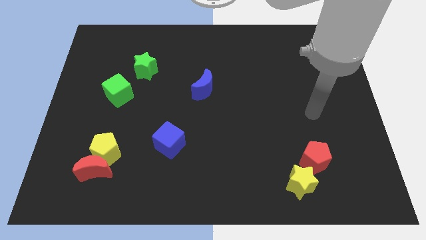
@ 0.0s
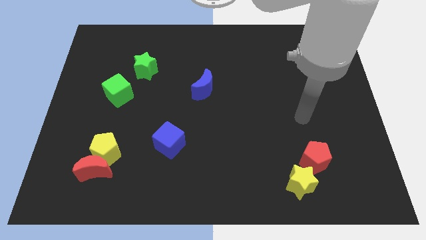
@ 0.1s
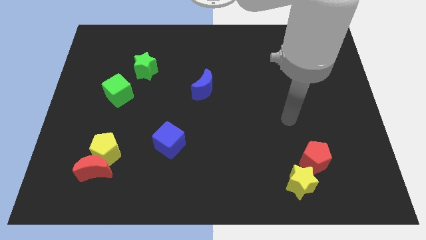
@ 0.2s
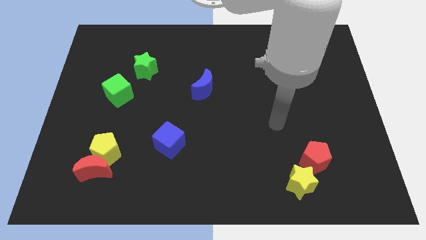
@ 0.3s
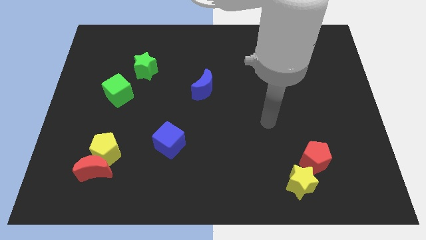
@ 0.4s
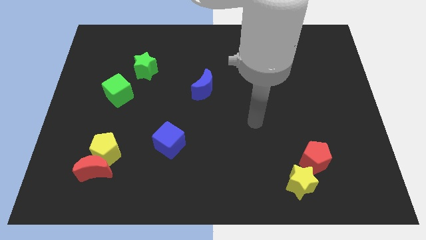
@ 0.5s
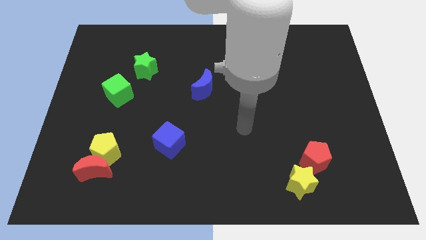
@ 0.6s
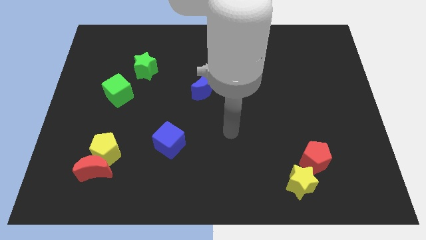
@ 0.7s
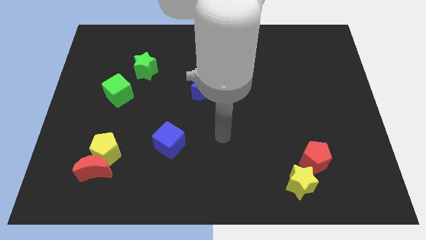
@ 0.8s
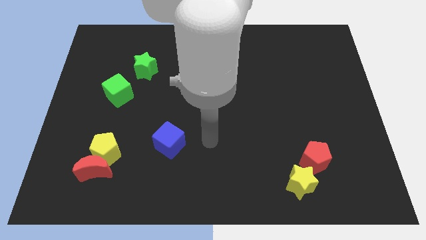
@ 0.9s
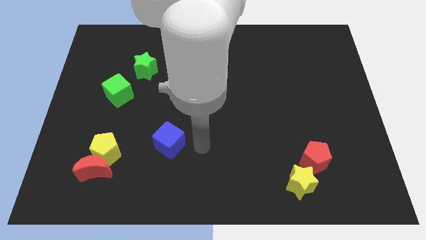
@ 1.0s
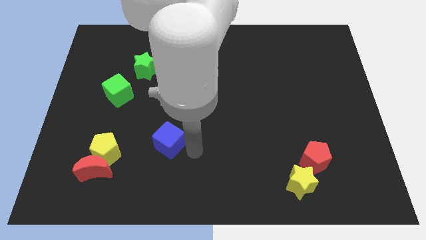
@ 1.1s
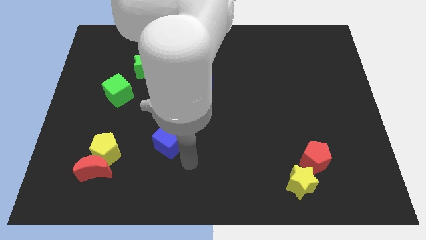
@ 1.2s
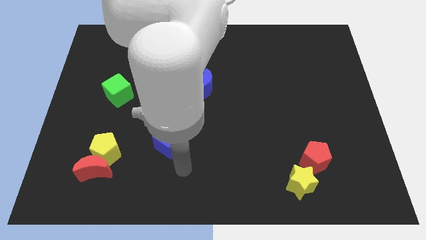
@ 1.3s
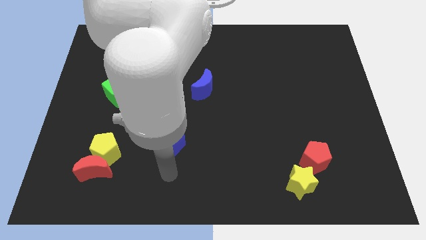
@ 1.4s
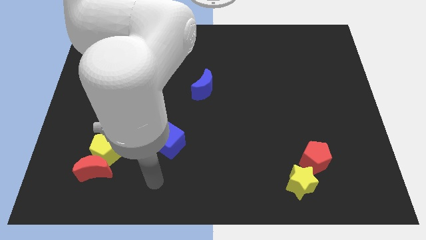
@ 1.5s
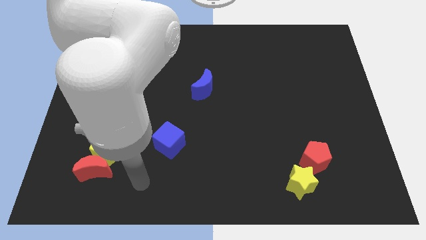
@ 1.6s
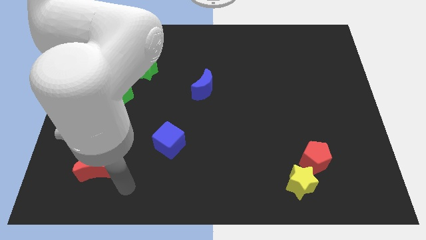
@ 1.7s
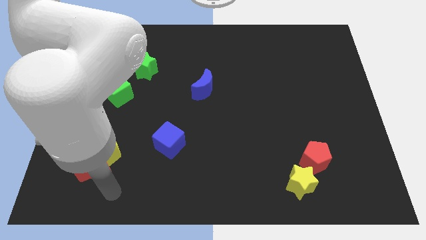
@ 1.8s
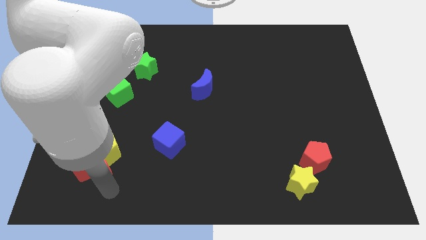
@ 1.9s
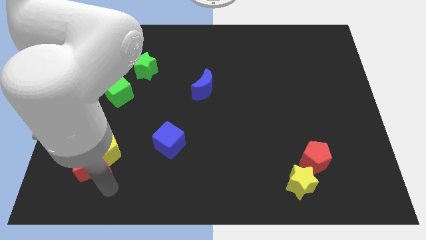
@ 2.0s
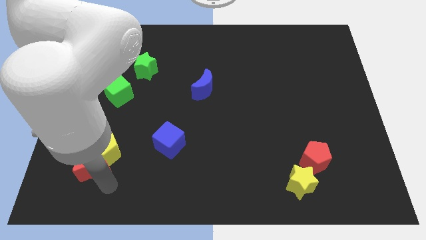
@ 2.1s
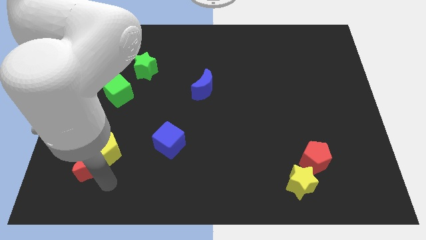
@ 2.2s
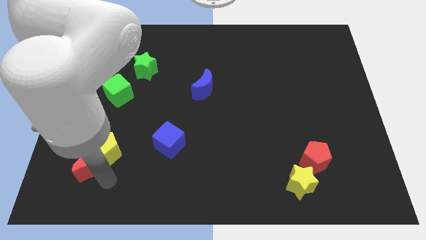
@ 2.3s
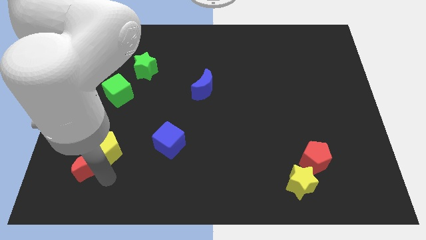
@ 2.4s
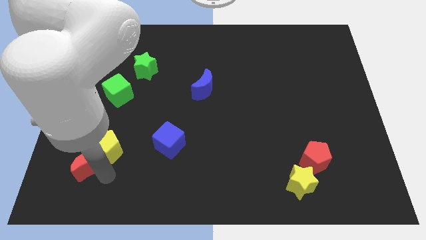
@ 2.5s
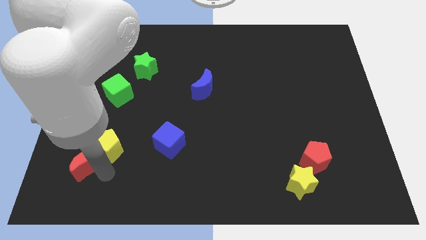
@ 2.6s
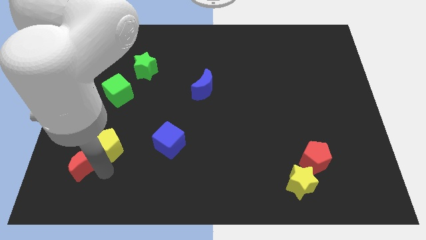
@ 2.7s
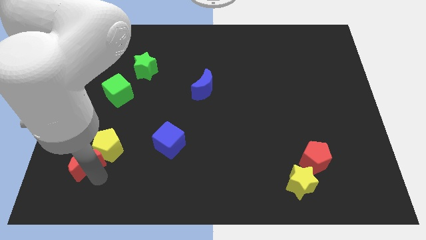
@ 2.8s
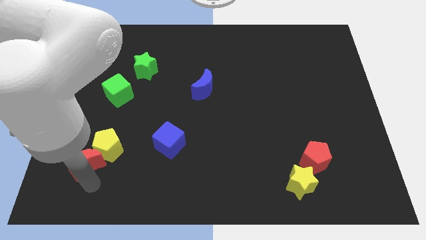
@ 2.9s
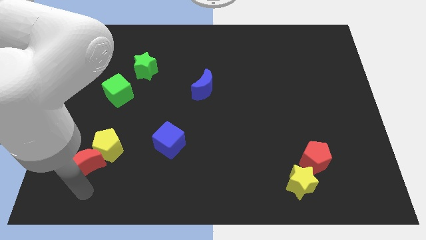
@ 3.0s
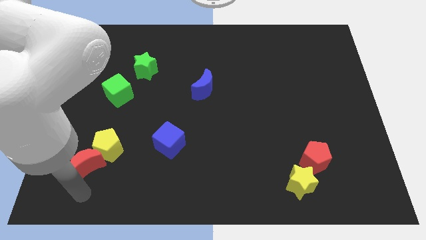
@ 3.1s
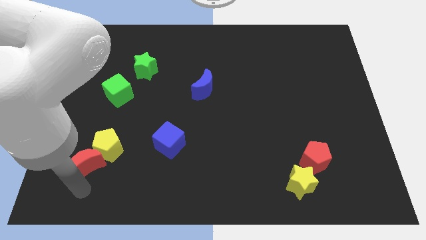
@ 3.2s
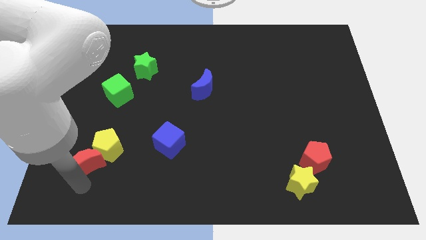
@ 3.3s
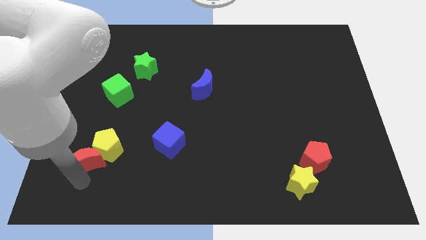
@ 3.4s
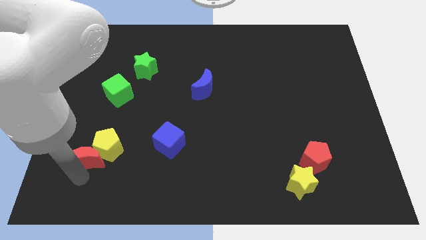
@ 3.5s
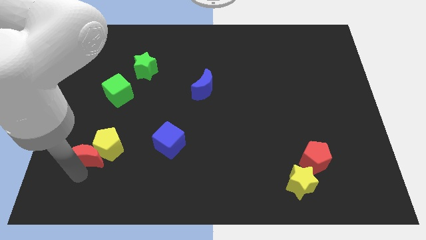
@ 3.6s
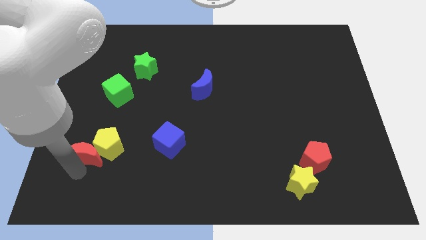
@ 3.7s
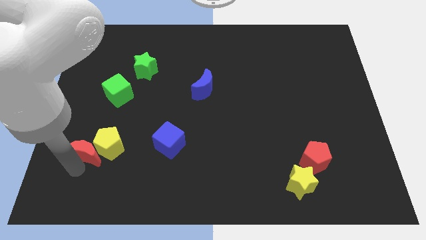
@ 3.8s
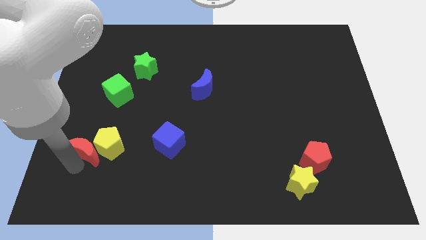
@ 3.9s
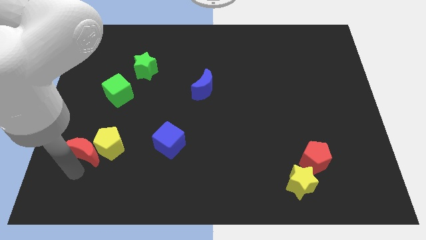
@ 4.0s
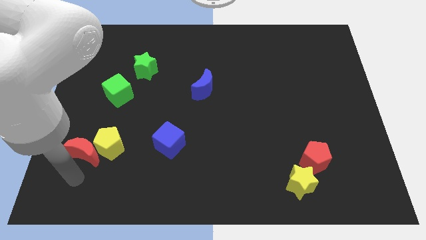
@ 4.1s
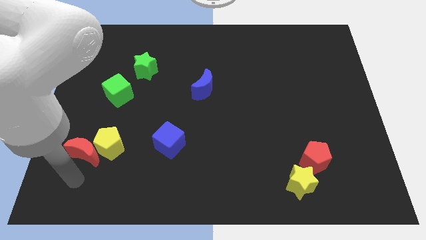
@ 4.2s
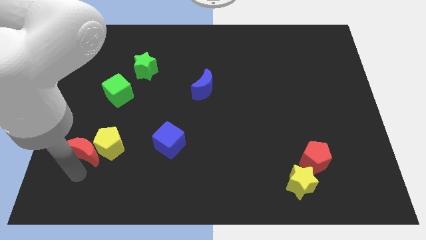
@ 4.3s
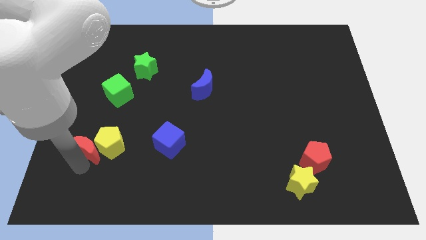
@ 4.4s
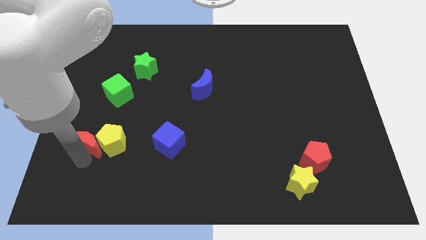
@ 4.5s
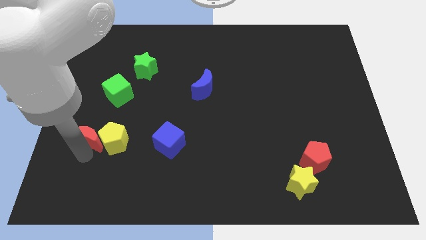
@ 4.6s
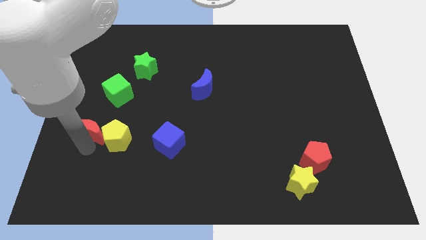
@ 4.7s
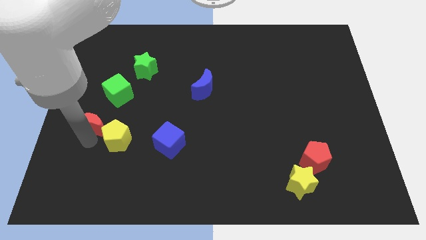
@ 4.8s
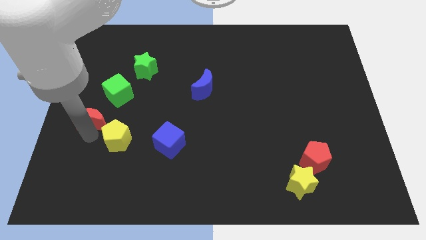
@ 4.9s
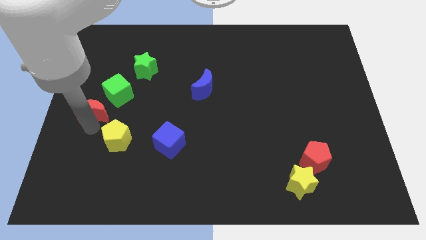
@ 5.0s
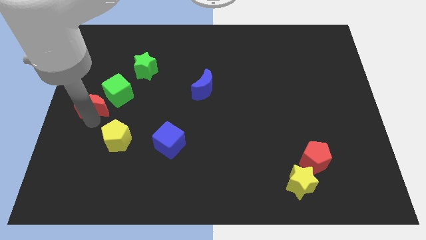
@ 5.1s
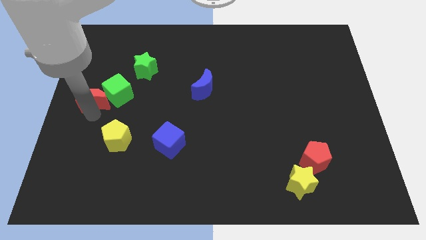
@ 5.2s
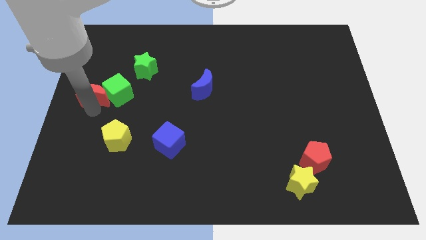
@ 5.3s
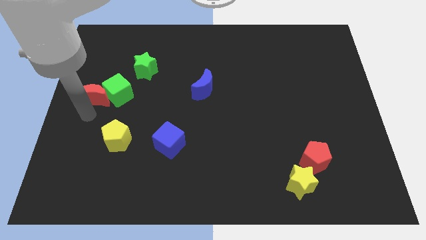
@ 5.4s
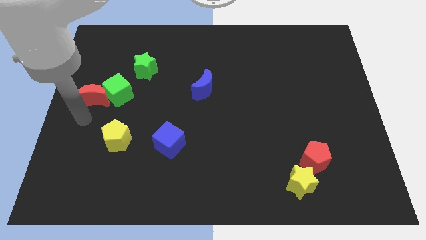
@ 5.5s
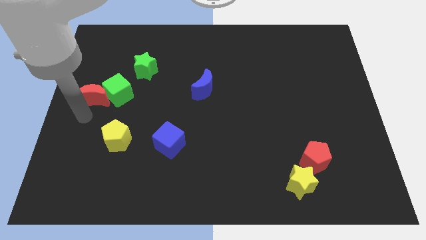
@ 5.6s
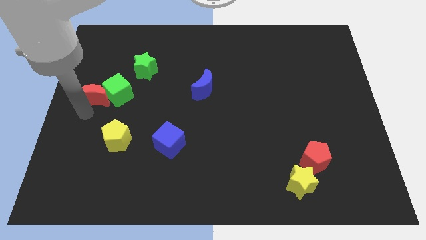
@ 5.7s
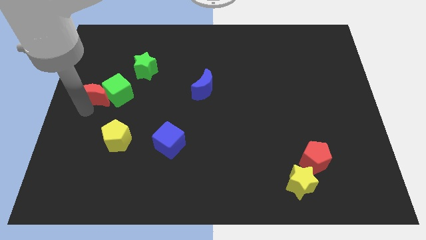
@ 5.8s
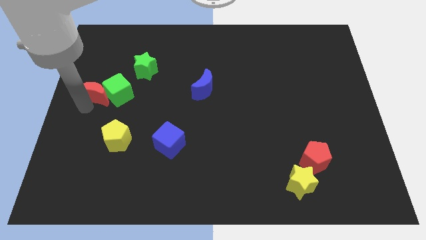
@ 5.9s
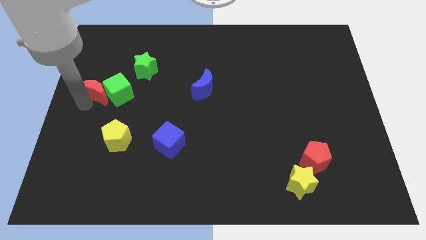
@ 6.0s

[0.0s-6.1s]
push the red moon up

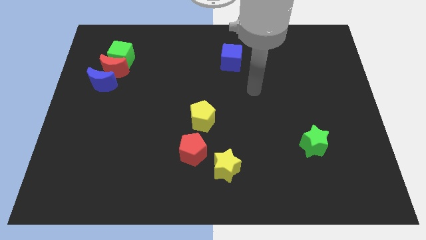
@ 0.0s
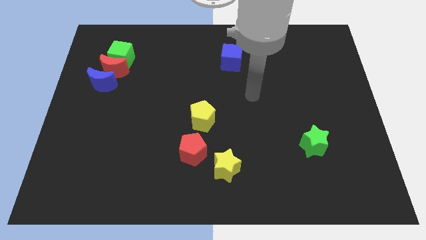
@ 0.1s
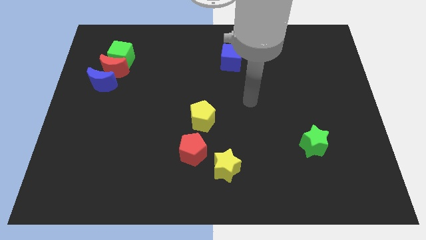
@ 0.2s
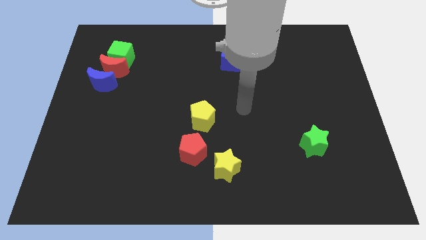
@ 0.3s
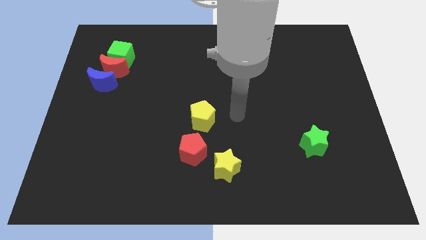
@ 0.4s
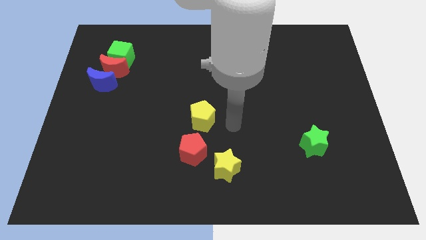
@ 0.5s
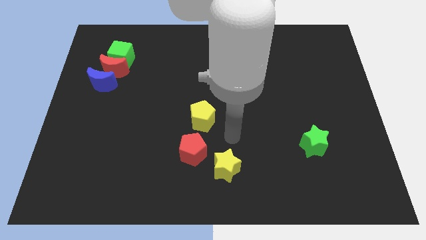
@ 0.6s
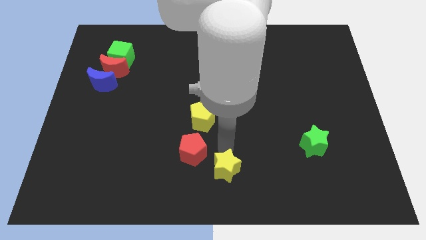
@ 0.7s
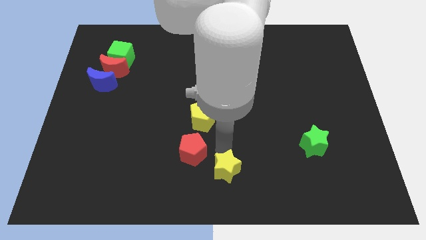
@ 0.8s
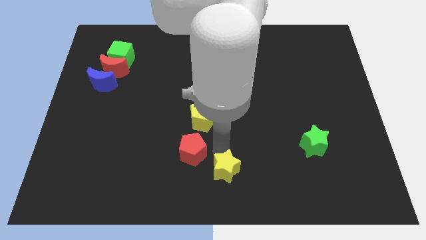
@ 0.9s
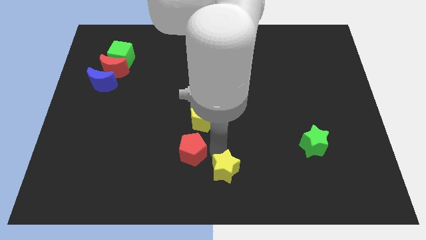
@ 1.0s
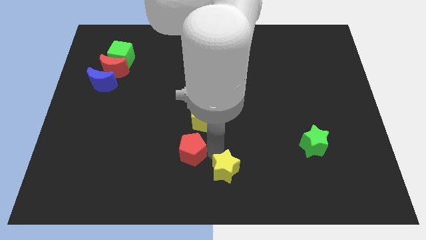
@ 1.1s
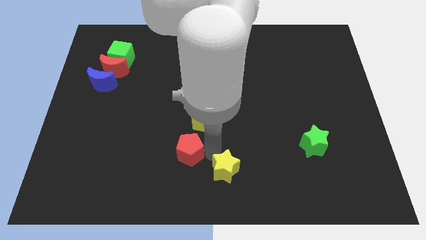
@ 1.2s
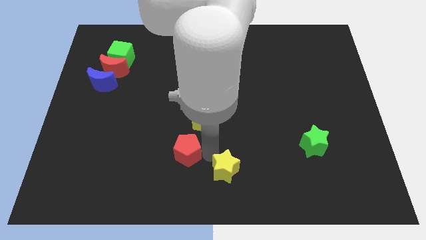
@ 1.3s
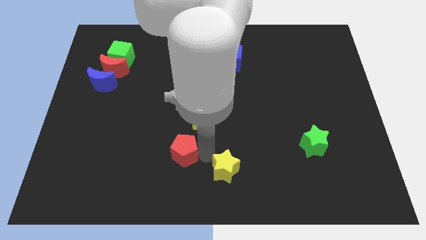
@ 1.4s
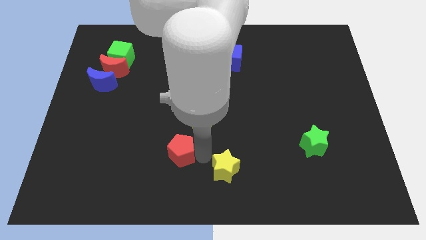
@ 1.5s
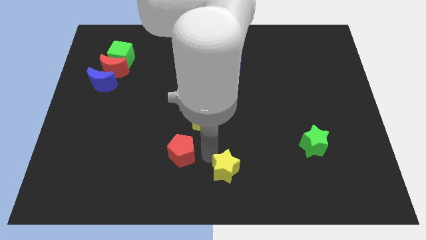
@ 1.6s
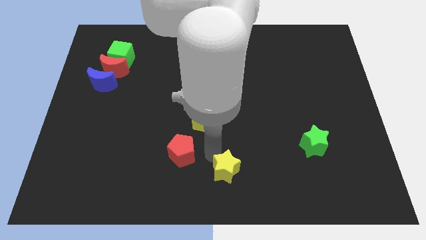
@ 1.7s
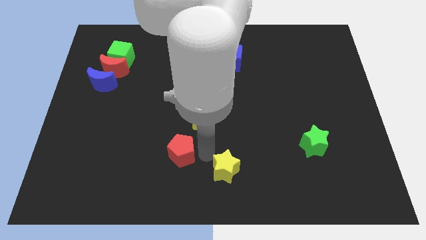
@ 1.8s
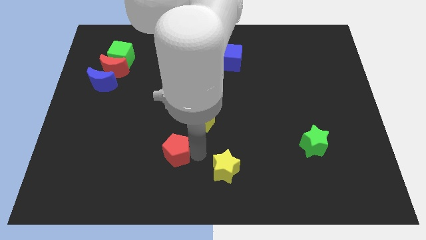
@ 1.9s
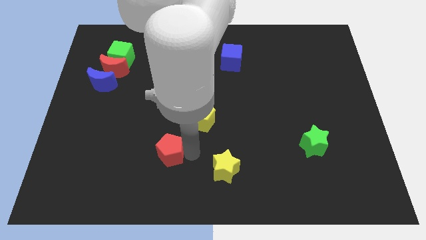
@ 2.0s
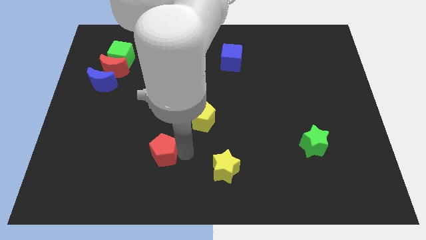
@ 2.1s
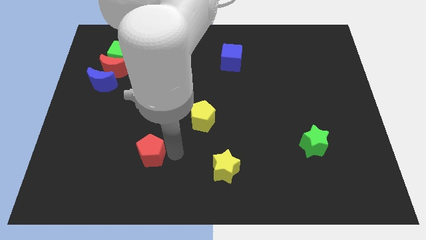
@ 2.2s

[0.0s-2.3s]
push the red pentagon somewhat to the left
